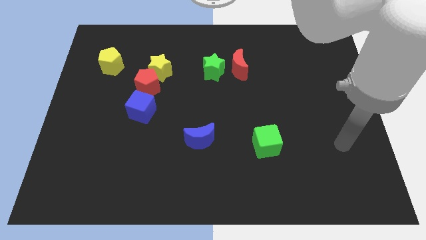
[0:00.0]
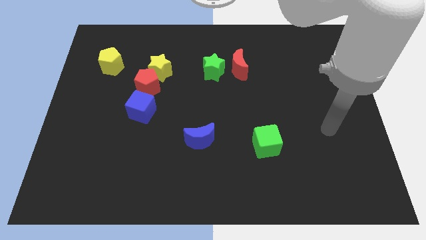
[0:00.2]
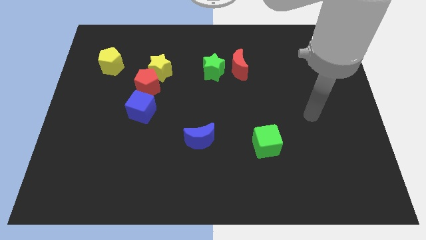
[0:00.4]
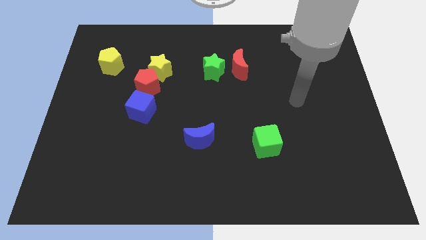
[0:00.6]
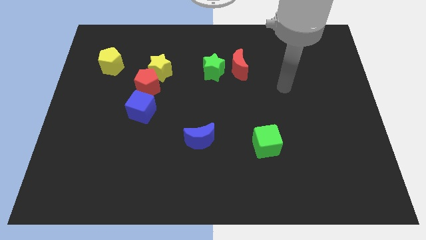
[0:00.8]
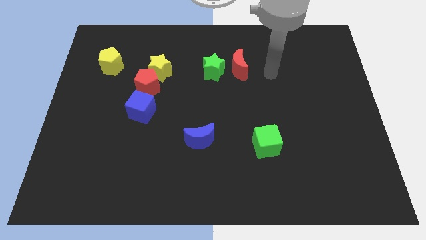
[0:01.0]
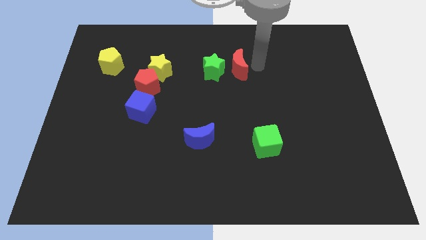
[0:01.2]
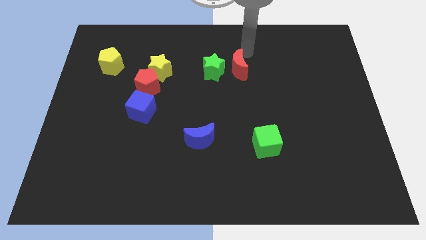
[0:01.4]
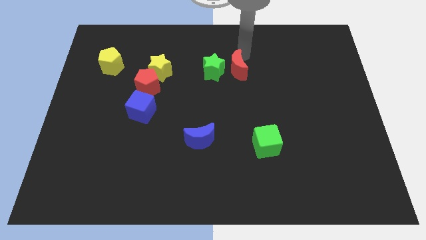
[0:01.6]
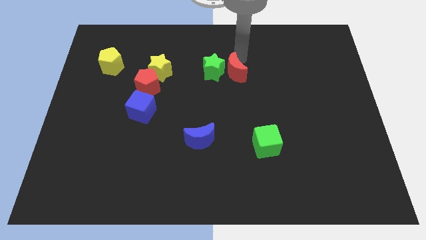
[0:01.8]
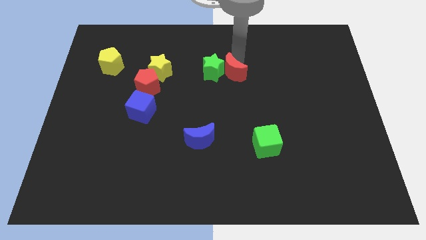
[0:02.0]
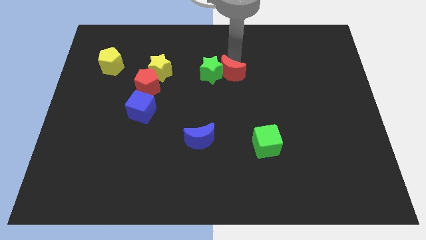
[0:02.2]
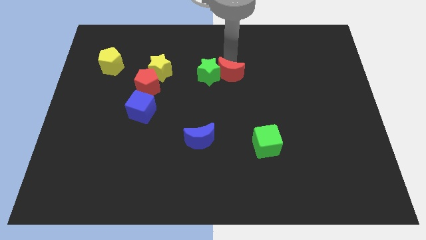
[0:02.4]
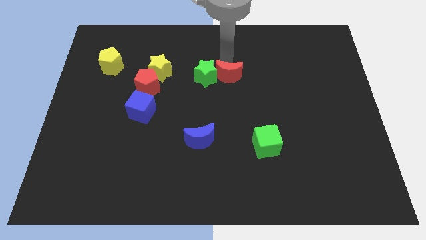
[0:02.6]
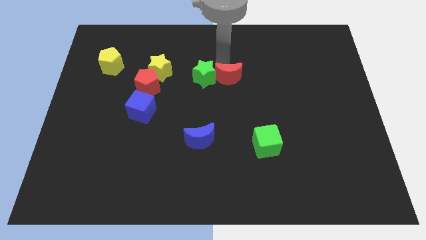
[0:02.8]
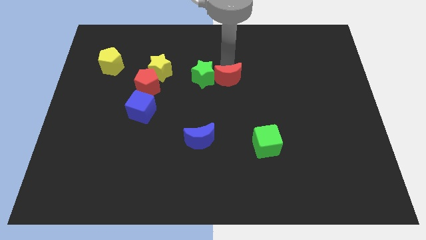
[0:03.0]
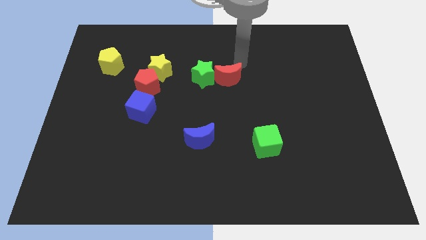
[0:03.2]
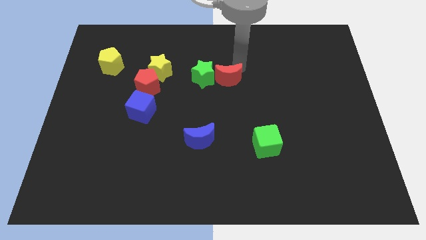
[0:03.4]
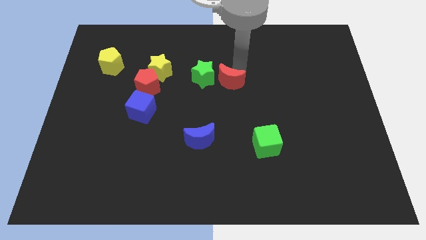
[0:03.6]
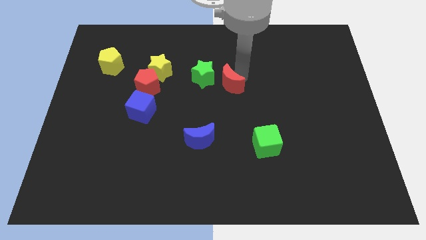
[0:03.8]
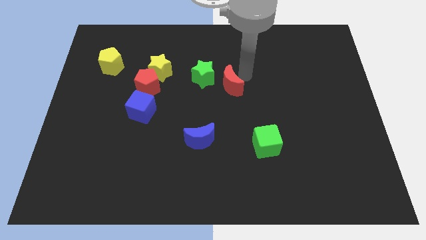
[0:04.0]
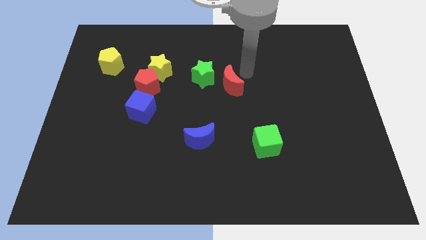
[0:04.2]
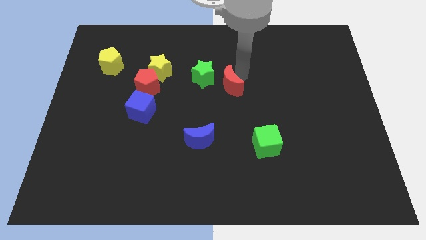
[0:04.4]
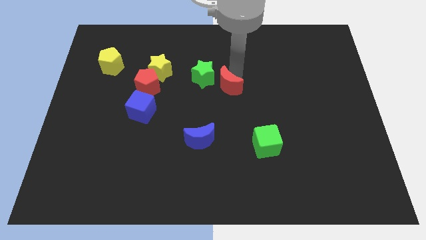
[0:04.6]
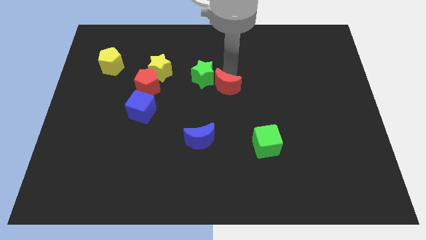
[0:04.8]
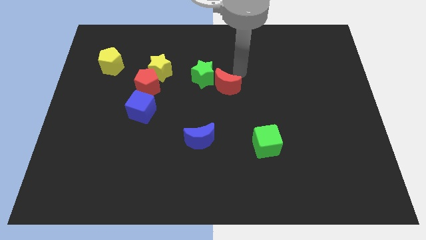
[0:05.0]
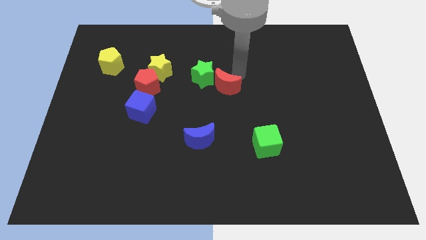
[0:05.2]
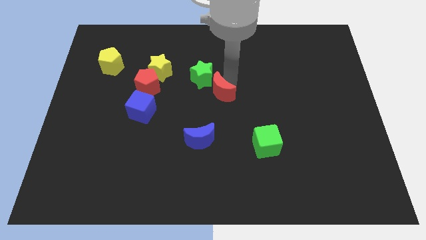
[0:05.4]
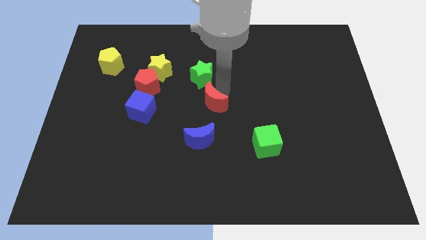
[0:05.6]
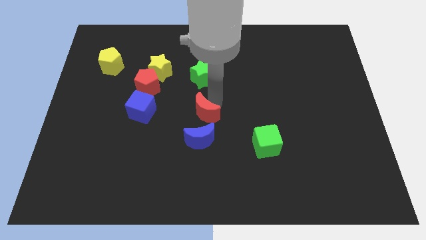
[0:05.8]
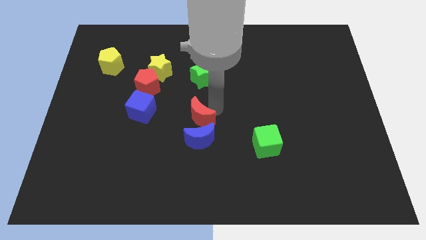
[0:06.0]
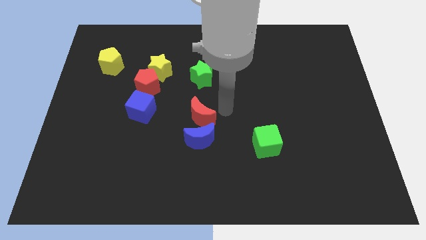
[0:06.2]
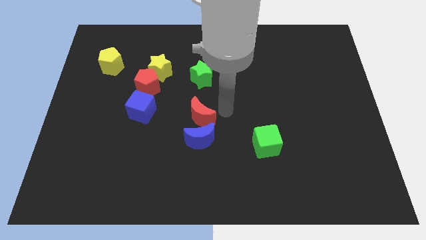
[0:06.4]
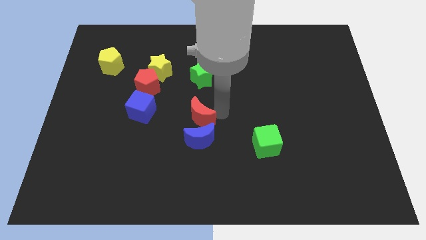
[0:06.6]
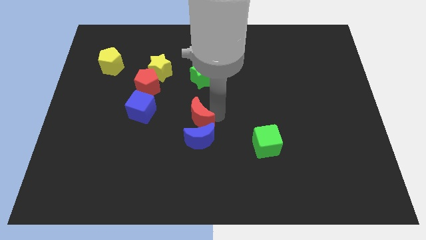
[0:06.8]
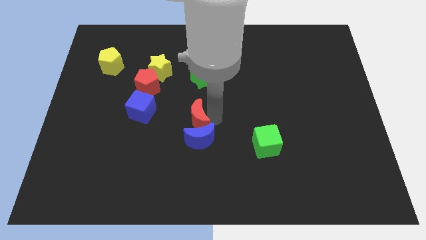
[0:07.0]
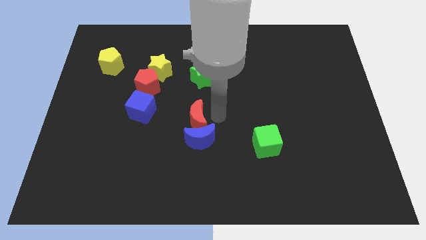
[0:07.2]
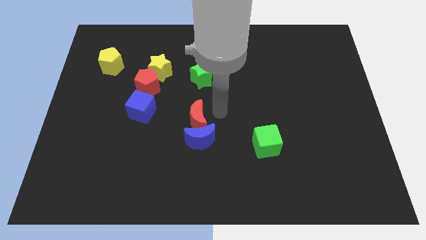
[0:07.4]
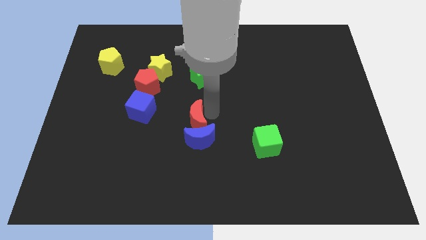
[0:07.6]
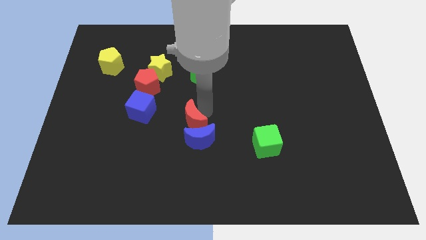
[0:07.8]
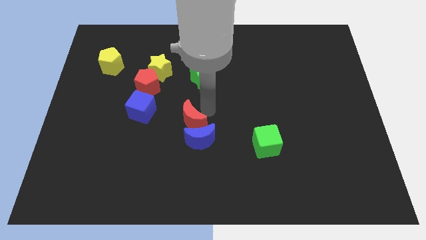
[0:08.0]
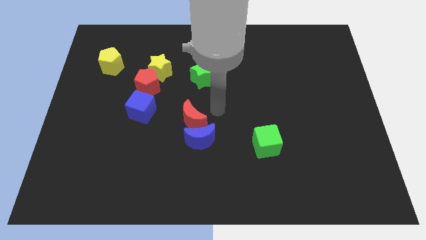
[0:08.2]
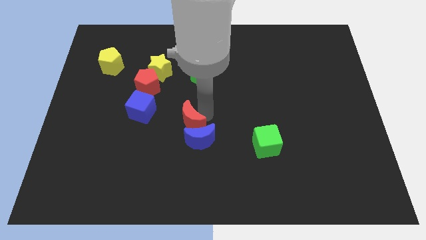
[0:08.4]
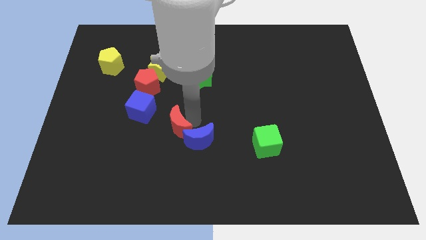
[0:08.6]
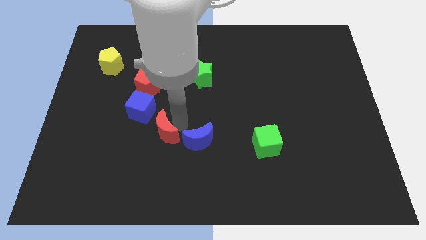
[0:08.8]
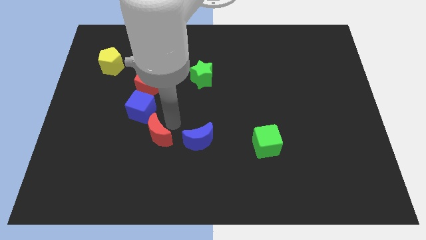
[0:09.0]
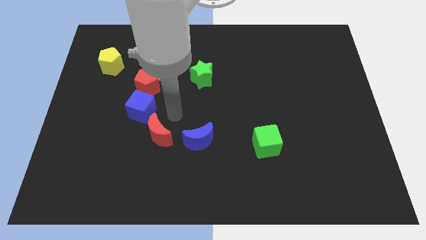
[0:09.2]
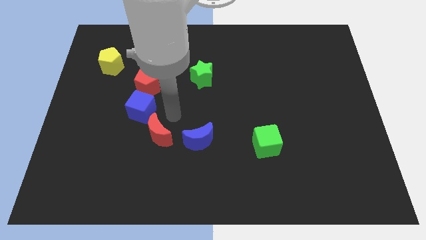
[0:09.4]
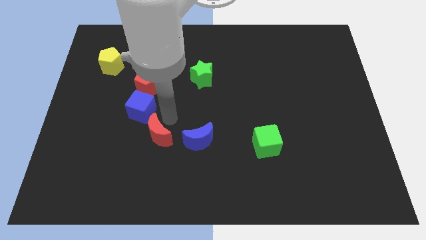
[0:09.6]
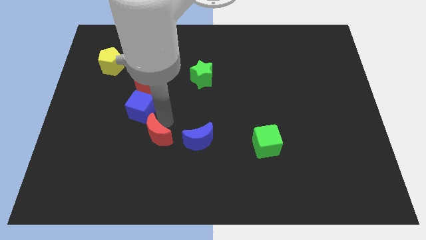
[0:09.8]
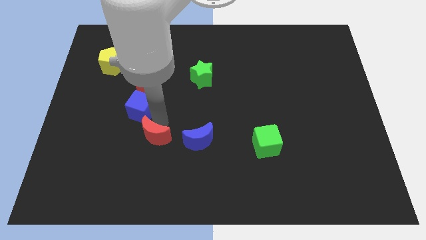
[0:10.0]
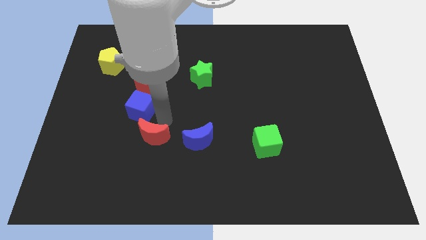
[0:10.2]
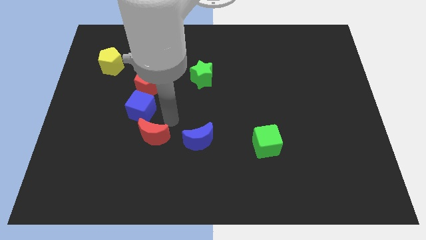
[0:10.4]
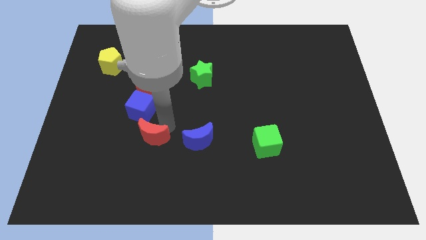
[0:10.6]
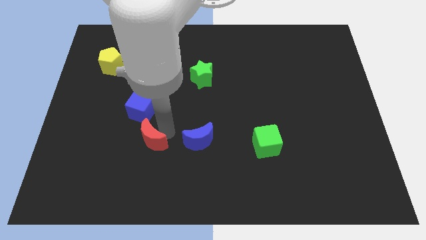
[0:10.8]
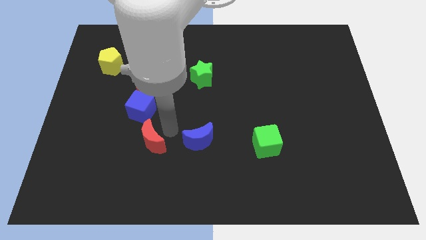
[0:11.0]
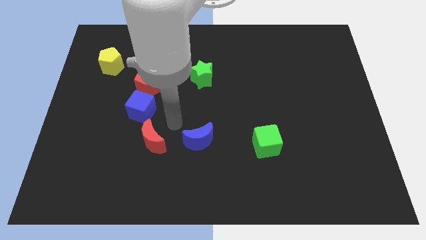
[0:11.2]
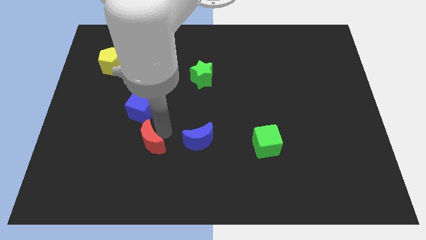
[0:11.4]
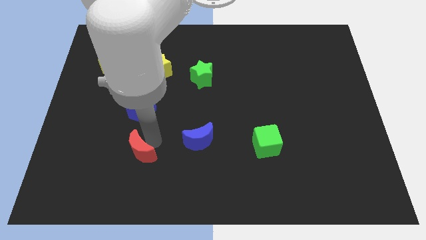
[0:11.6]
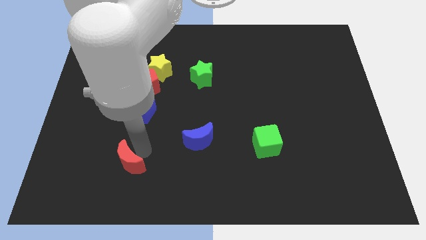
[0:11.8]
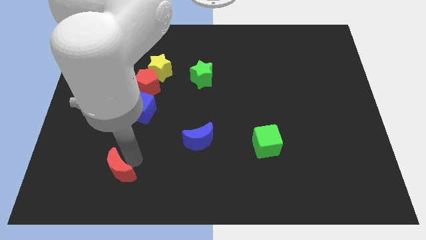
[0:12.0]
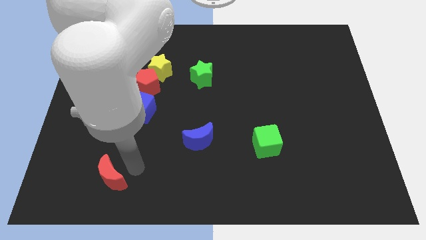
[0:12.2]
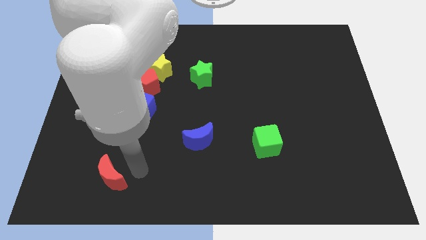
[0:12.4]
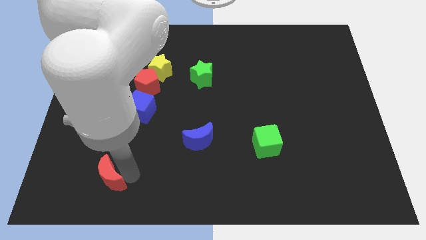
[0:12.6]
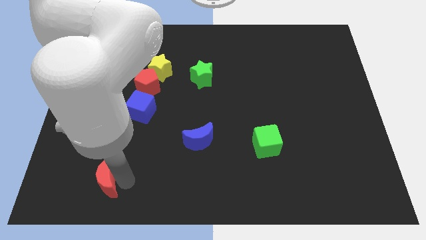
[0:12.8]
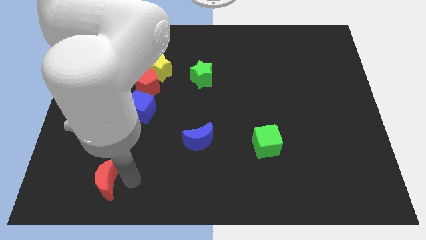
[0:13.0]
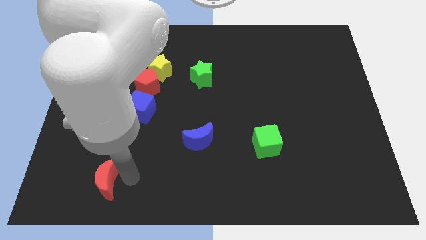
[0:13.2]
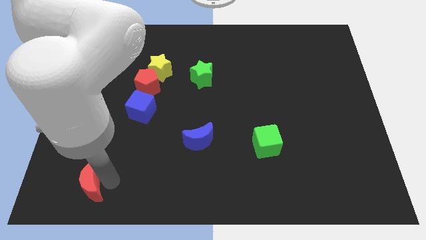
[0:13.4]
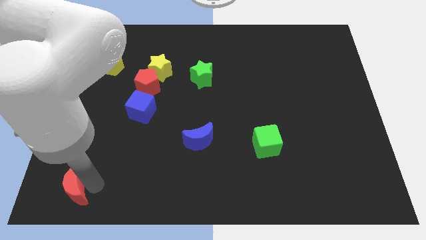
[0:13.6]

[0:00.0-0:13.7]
slide the red moon to the bottom left corner

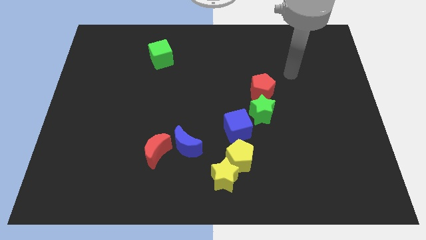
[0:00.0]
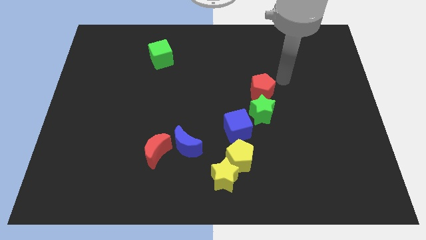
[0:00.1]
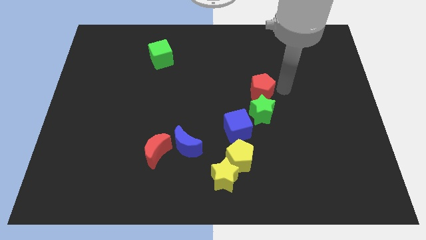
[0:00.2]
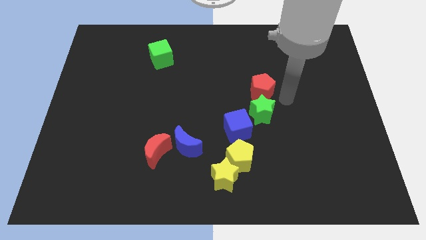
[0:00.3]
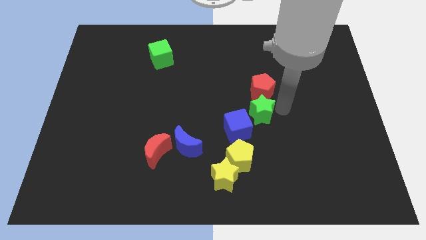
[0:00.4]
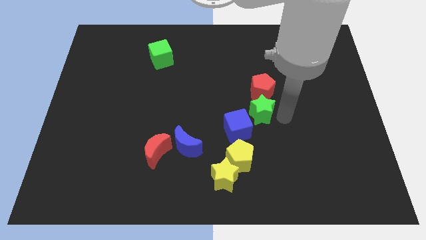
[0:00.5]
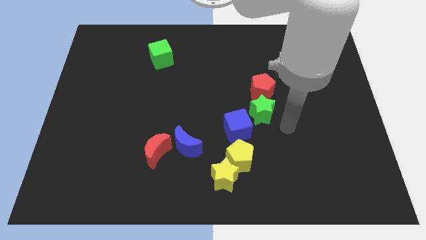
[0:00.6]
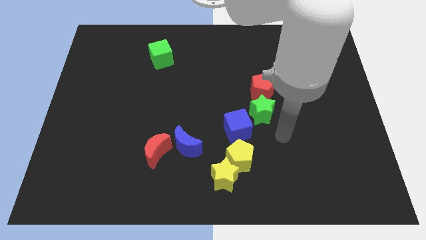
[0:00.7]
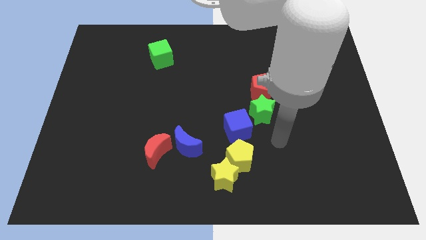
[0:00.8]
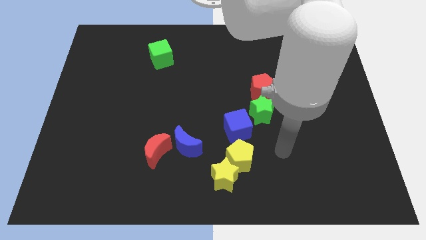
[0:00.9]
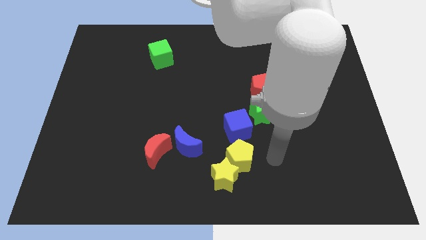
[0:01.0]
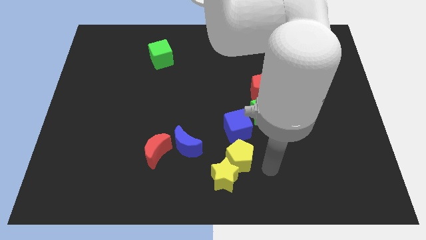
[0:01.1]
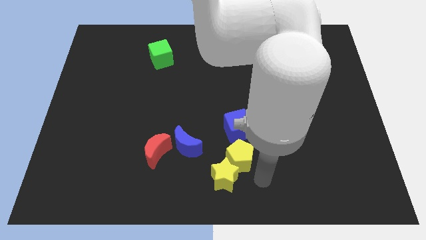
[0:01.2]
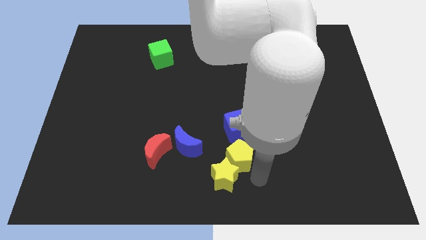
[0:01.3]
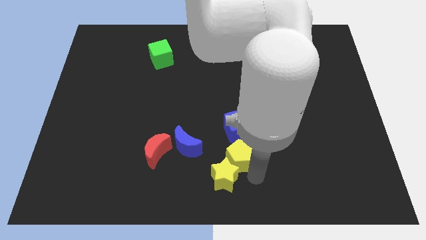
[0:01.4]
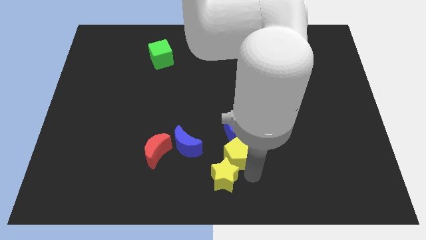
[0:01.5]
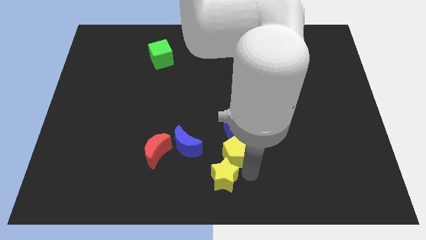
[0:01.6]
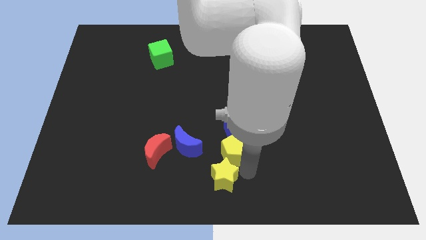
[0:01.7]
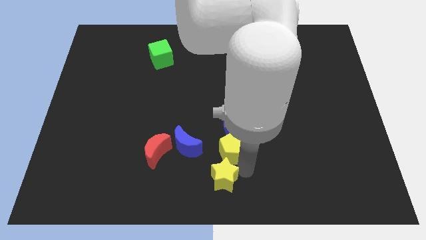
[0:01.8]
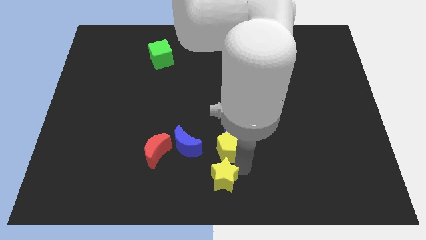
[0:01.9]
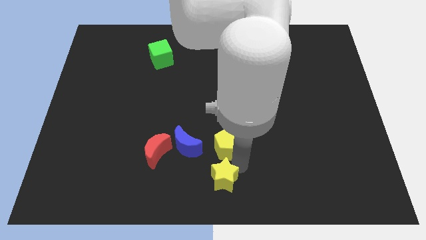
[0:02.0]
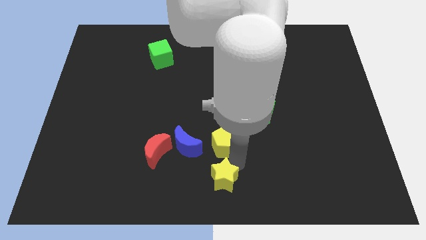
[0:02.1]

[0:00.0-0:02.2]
push the yellow pentagon to the center
